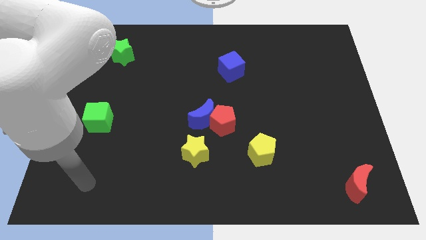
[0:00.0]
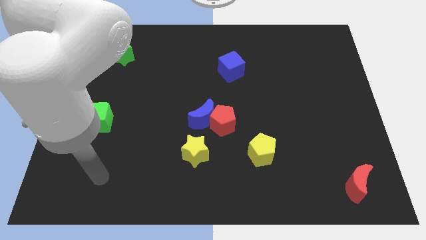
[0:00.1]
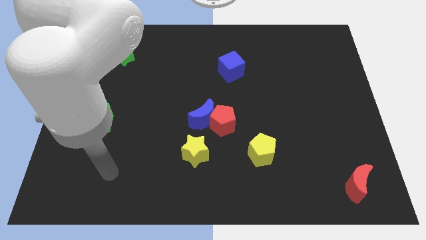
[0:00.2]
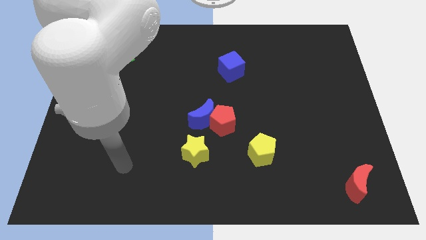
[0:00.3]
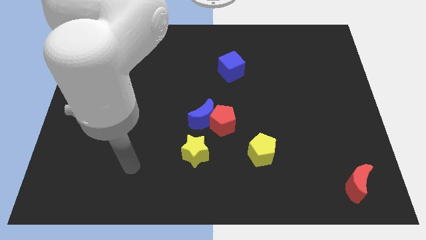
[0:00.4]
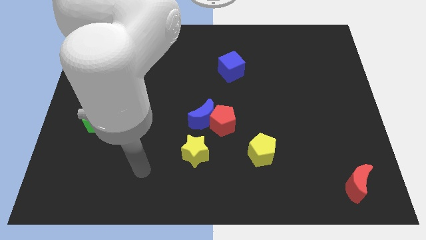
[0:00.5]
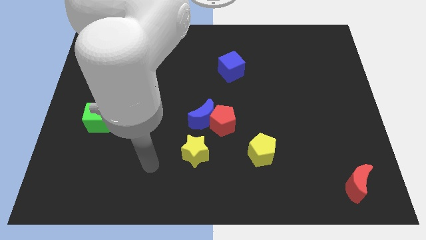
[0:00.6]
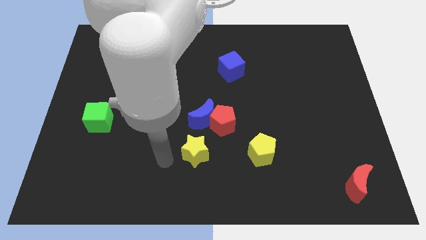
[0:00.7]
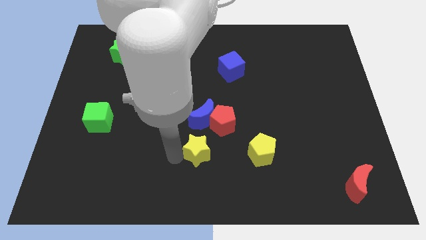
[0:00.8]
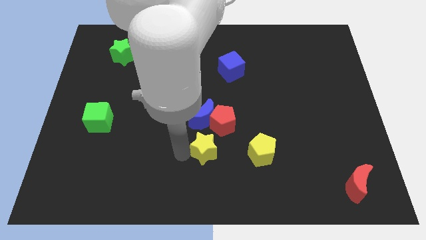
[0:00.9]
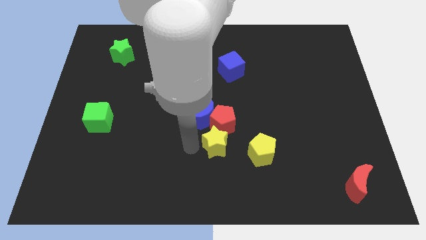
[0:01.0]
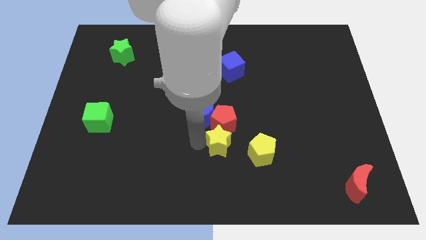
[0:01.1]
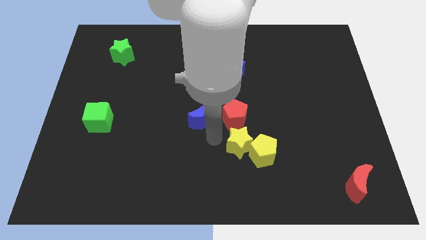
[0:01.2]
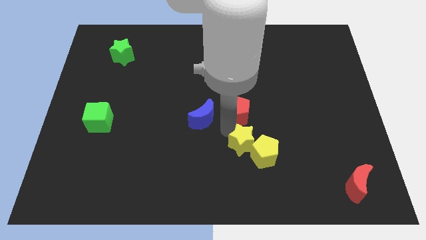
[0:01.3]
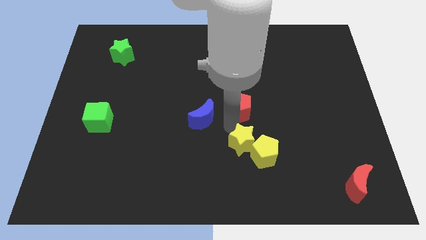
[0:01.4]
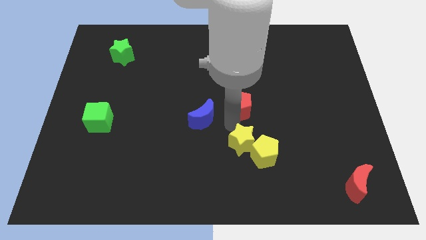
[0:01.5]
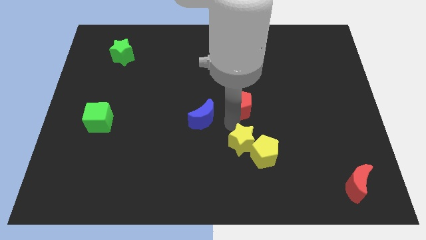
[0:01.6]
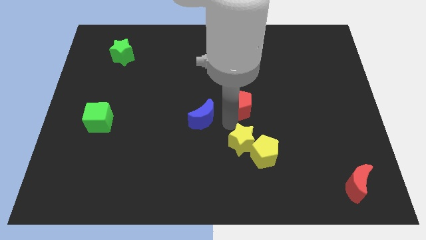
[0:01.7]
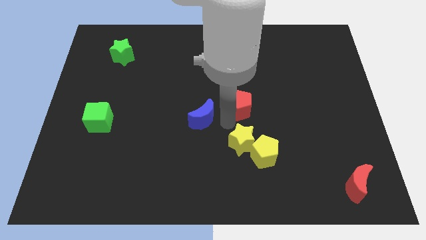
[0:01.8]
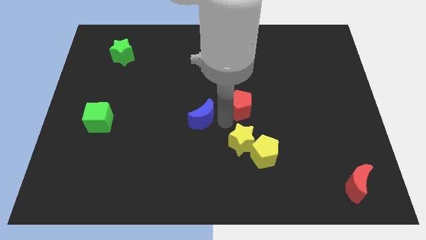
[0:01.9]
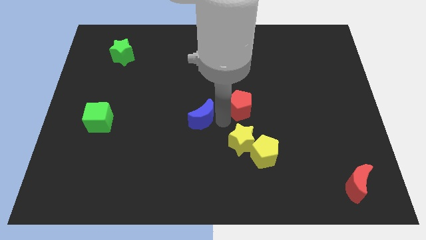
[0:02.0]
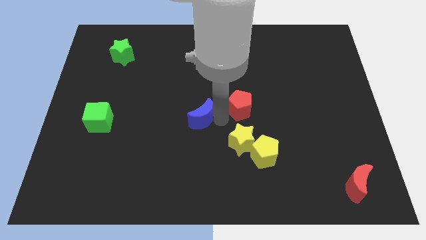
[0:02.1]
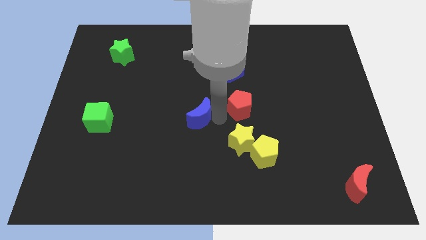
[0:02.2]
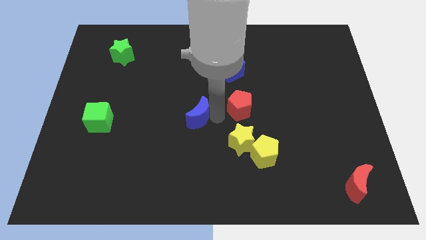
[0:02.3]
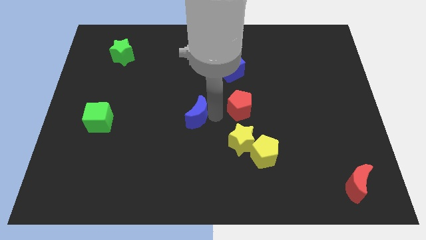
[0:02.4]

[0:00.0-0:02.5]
pull the blue moon apart from the red pentagon and yellow star

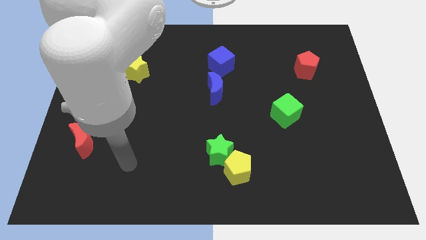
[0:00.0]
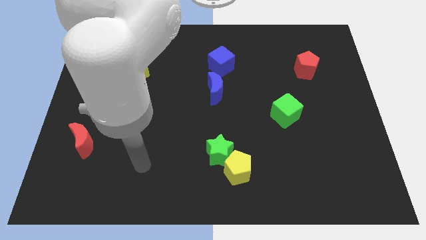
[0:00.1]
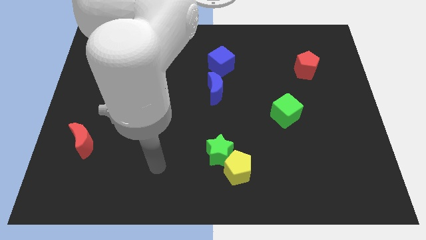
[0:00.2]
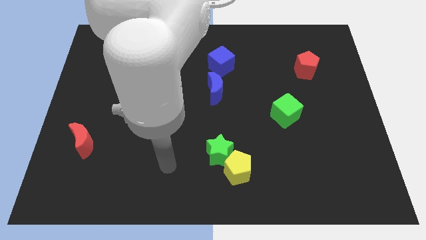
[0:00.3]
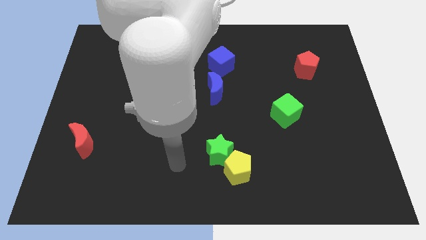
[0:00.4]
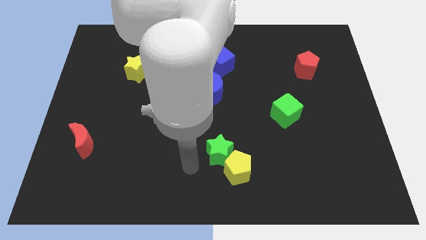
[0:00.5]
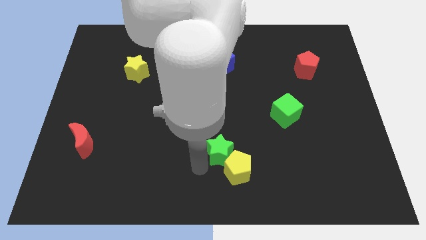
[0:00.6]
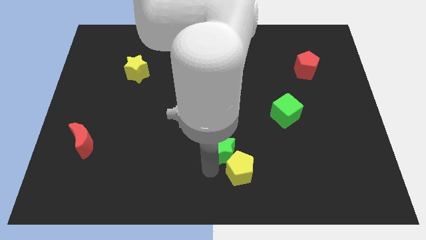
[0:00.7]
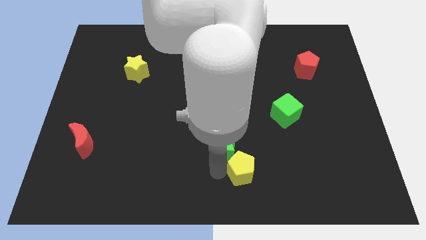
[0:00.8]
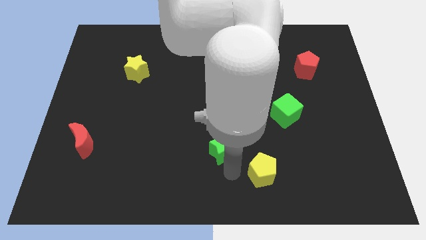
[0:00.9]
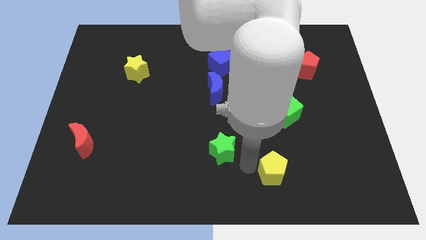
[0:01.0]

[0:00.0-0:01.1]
separate the green star from the yellow pentagon

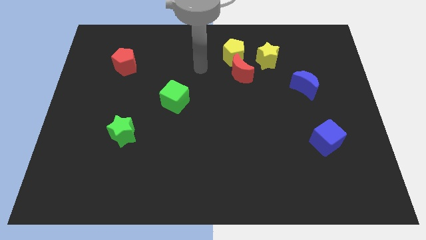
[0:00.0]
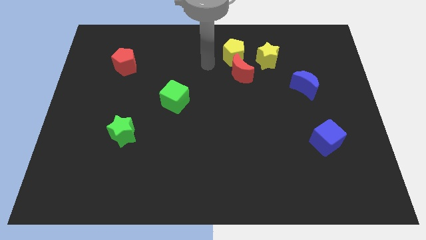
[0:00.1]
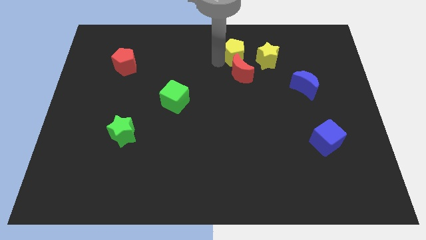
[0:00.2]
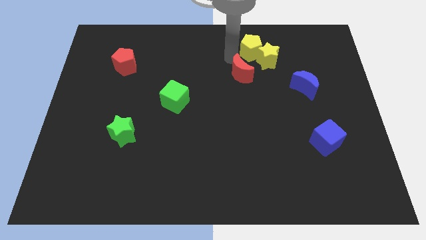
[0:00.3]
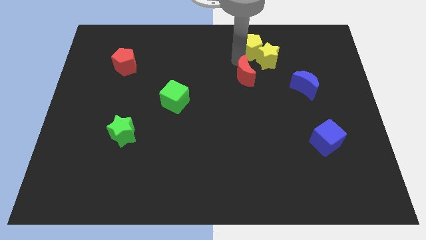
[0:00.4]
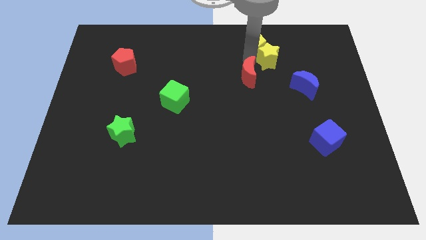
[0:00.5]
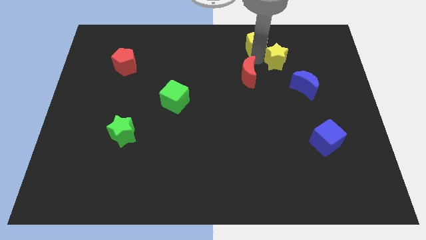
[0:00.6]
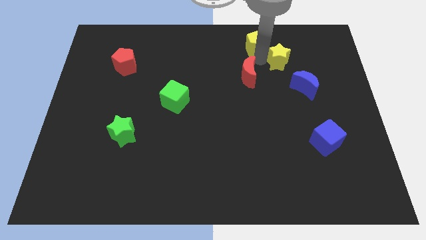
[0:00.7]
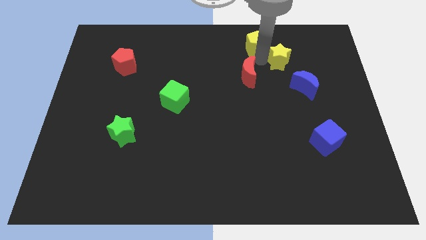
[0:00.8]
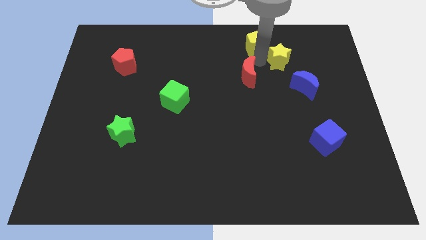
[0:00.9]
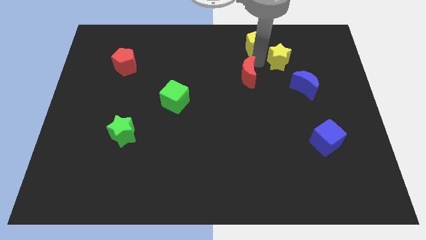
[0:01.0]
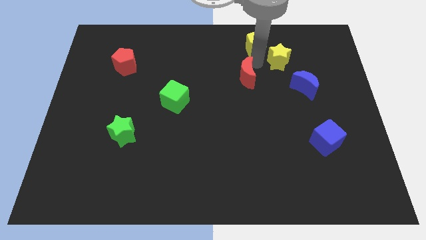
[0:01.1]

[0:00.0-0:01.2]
move the red moon away from the yellow pentagon and yellow star

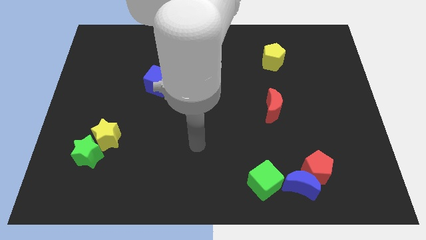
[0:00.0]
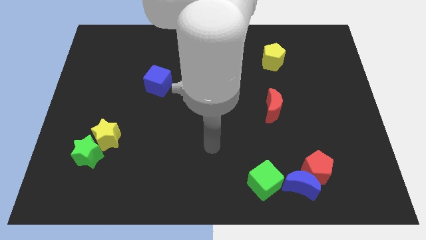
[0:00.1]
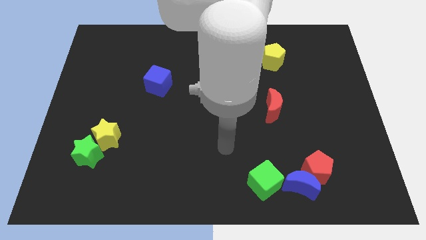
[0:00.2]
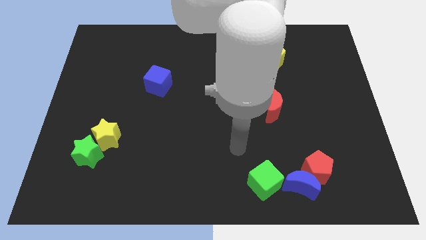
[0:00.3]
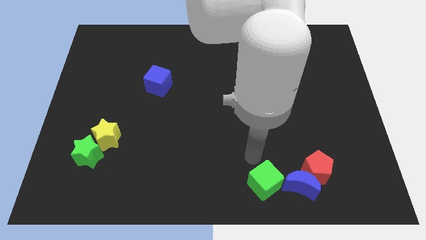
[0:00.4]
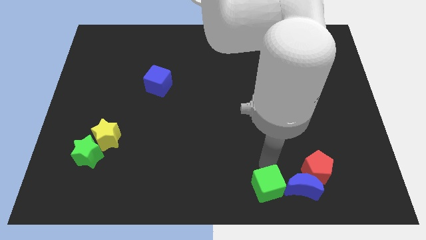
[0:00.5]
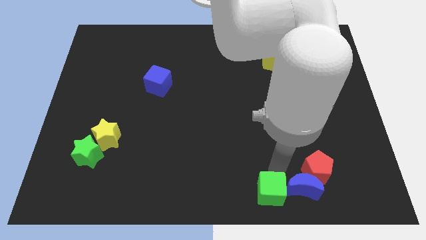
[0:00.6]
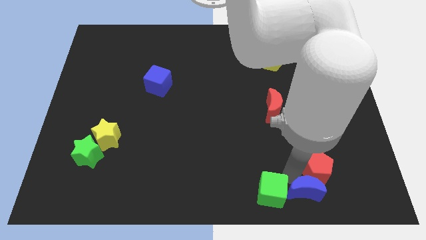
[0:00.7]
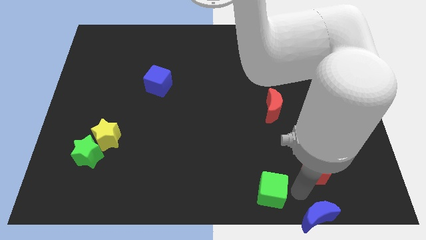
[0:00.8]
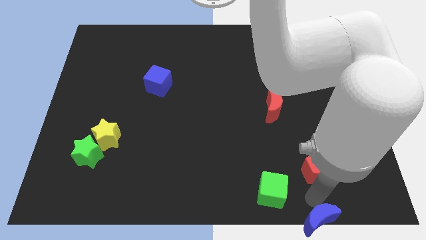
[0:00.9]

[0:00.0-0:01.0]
move the red pentagon away from the blue moon

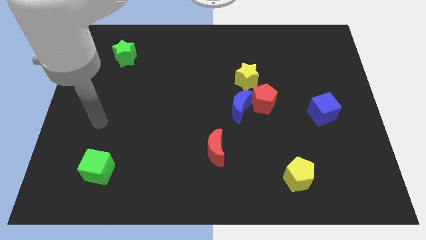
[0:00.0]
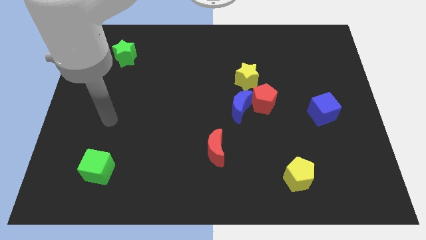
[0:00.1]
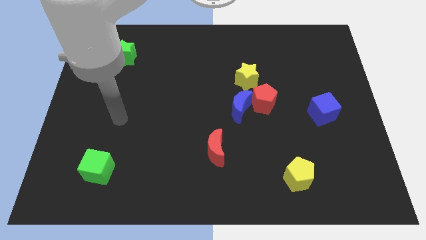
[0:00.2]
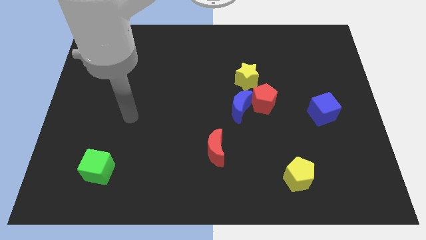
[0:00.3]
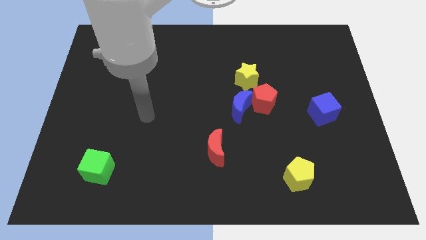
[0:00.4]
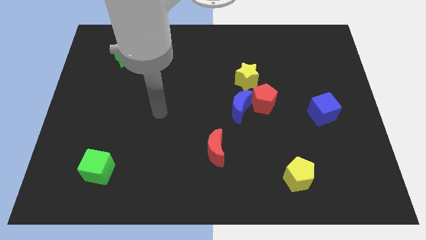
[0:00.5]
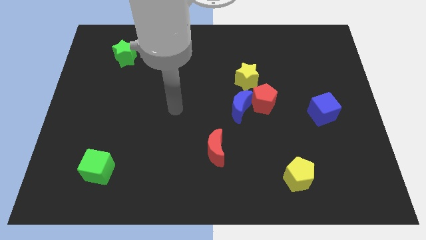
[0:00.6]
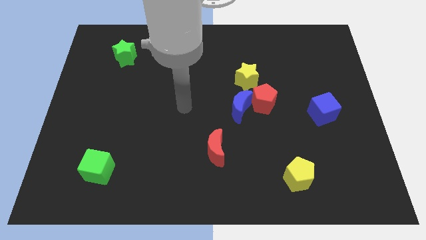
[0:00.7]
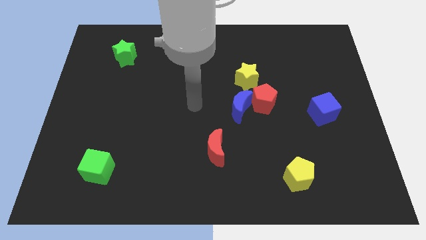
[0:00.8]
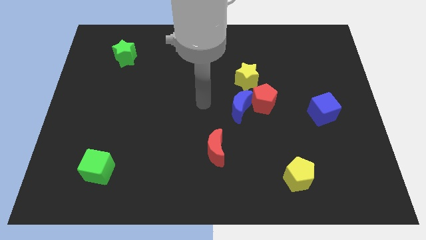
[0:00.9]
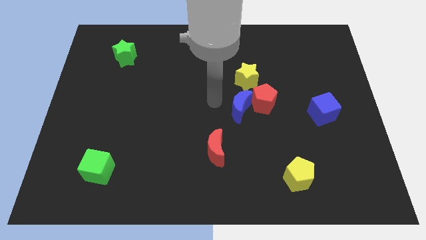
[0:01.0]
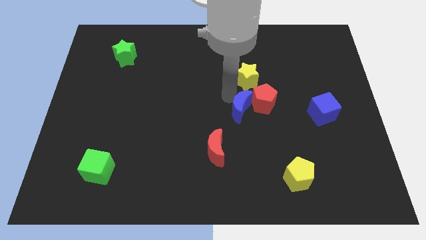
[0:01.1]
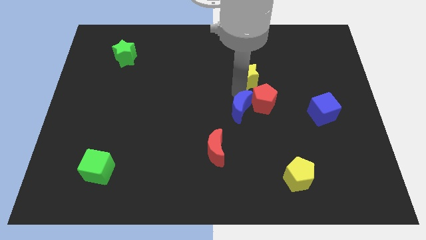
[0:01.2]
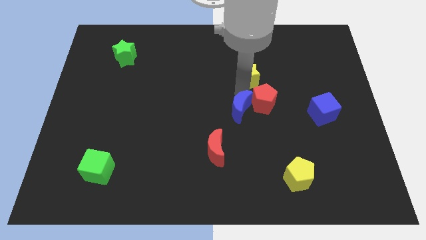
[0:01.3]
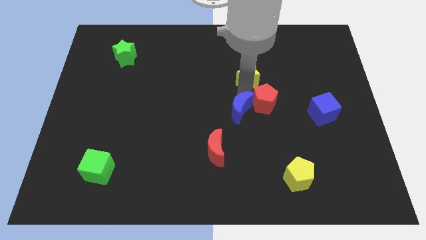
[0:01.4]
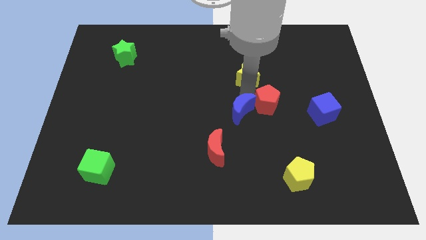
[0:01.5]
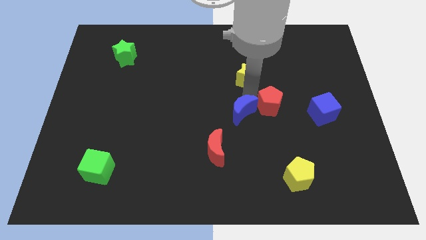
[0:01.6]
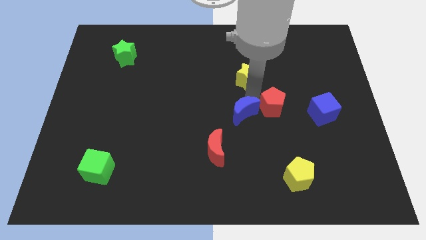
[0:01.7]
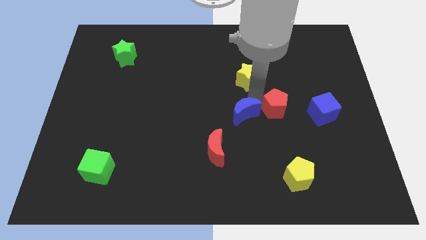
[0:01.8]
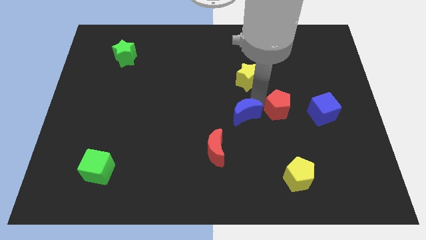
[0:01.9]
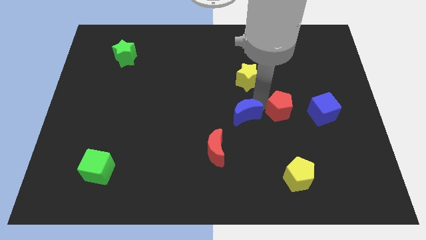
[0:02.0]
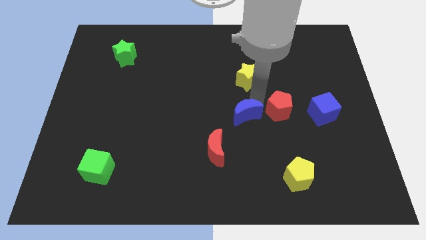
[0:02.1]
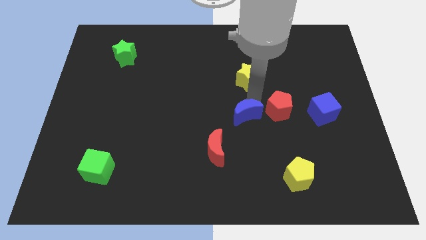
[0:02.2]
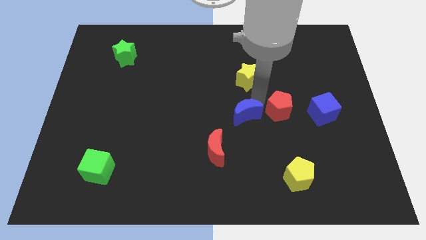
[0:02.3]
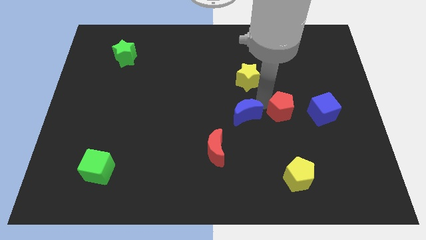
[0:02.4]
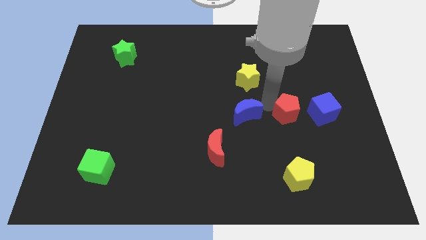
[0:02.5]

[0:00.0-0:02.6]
pull the red pentagon apart from the blue moon and yellow star

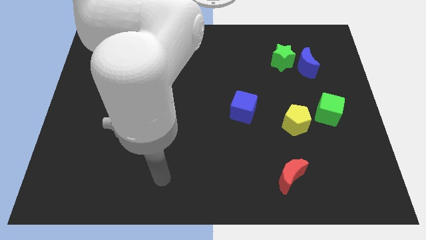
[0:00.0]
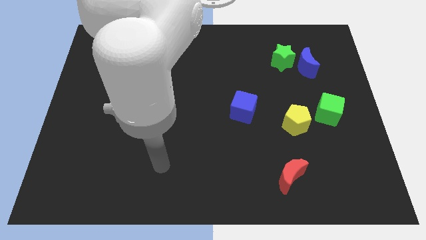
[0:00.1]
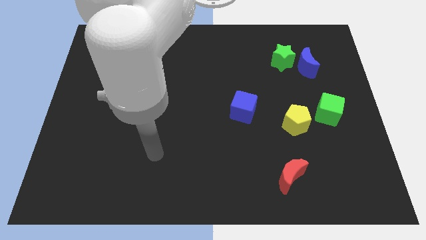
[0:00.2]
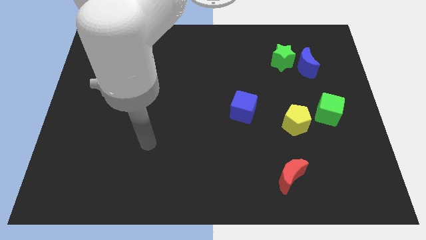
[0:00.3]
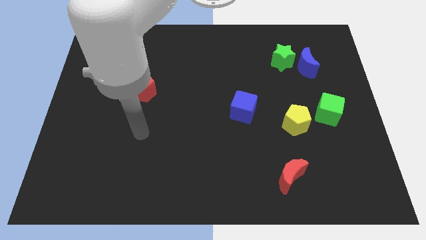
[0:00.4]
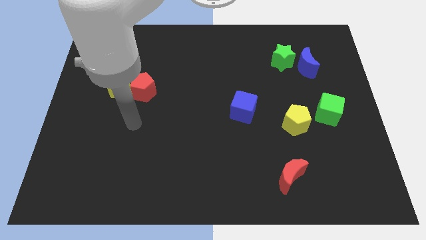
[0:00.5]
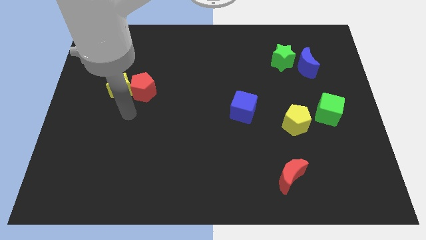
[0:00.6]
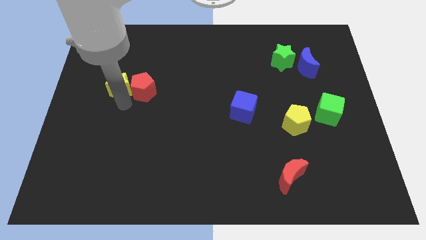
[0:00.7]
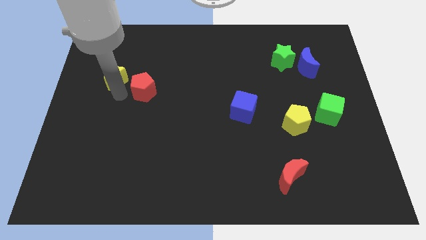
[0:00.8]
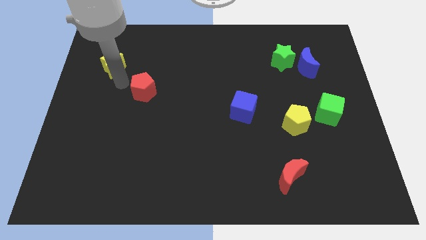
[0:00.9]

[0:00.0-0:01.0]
move the red pentagon away from the yellow star
